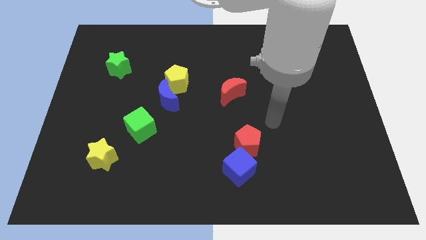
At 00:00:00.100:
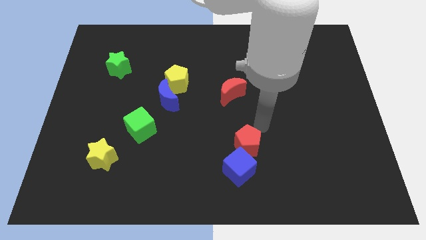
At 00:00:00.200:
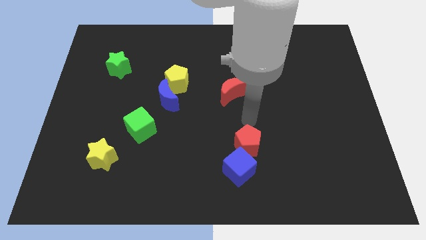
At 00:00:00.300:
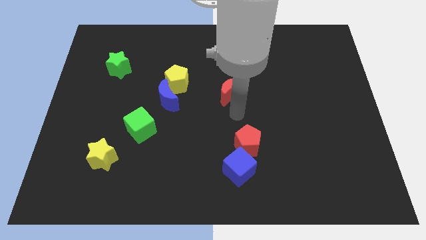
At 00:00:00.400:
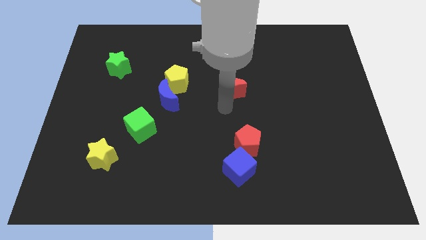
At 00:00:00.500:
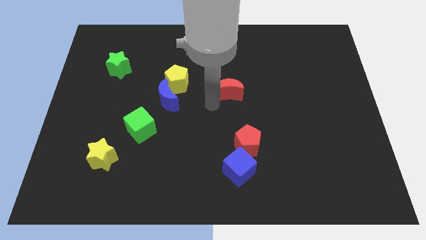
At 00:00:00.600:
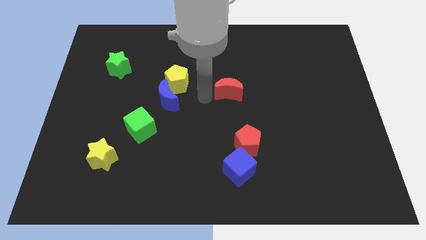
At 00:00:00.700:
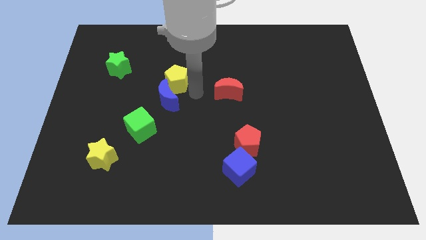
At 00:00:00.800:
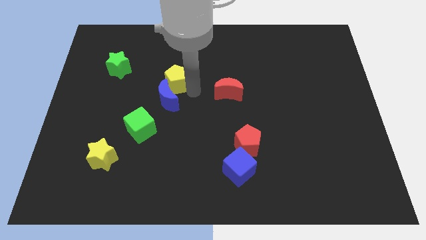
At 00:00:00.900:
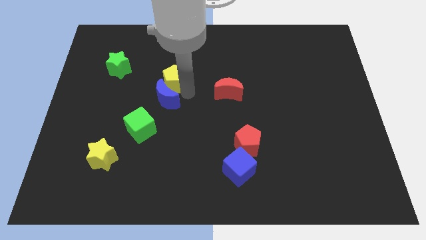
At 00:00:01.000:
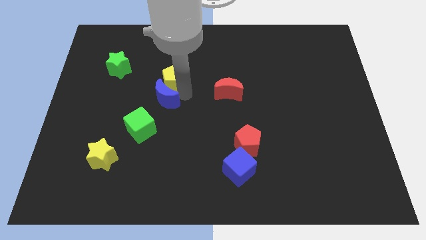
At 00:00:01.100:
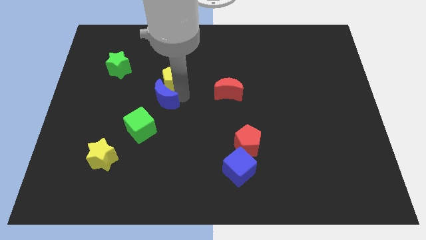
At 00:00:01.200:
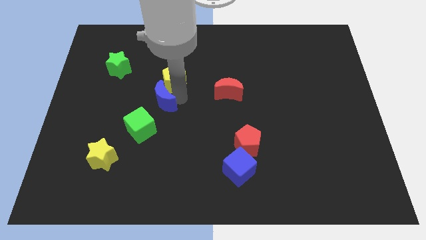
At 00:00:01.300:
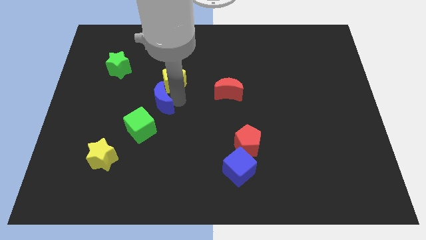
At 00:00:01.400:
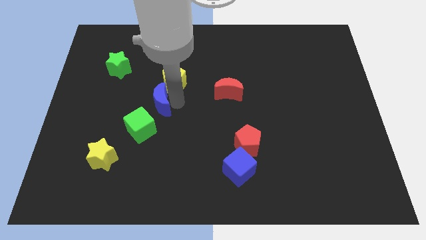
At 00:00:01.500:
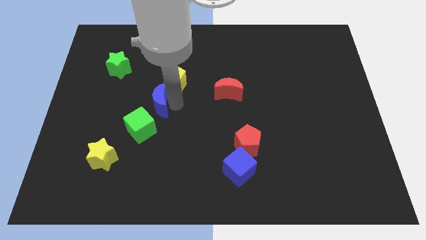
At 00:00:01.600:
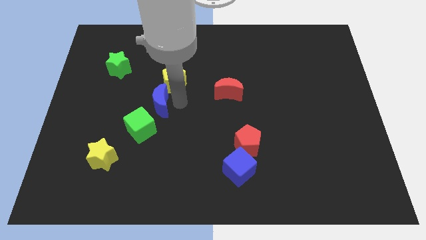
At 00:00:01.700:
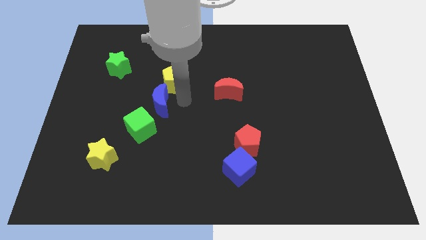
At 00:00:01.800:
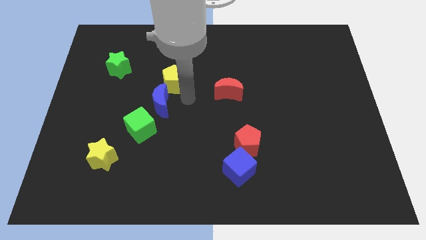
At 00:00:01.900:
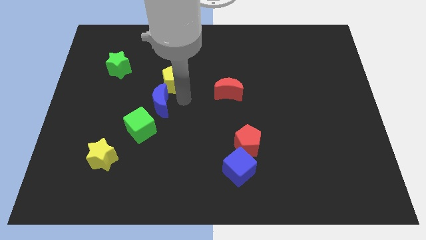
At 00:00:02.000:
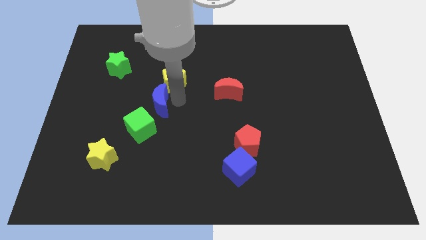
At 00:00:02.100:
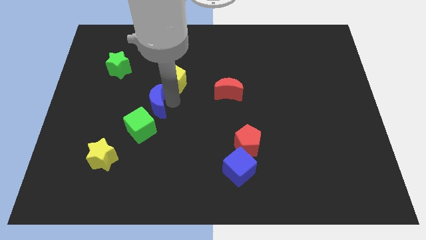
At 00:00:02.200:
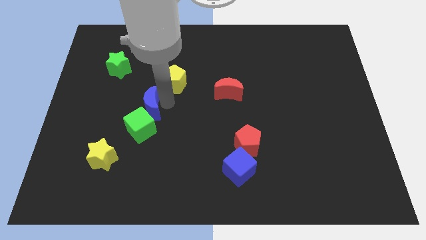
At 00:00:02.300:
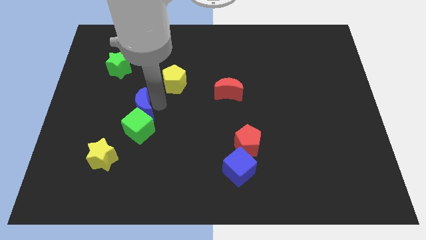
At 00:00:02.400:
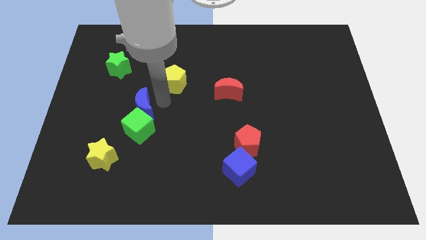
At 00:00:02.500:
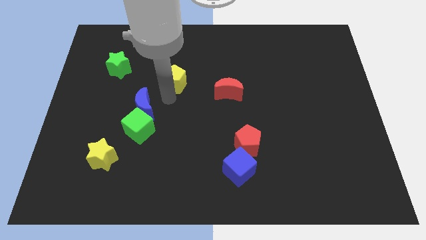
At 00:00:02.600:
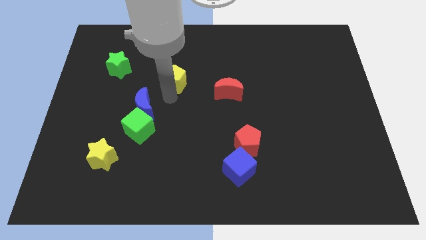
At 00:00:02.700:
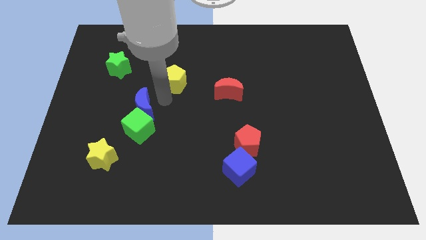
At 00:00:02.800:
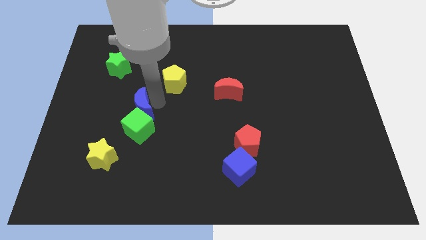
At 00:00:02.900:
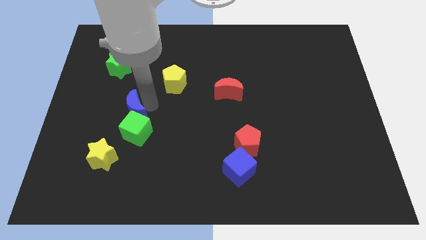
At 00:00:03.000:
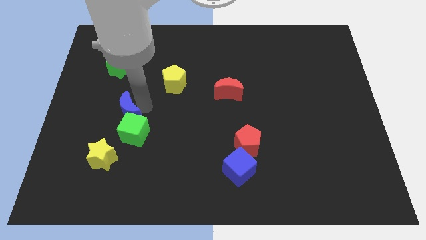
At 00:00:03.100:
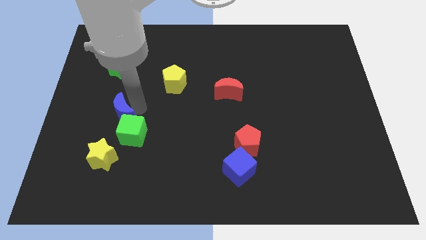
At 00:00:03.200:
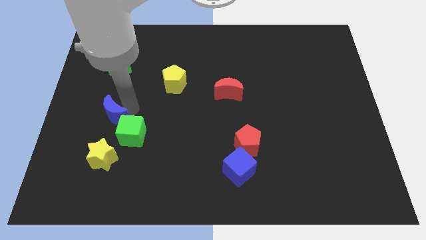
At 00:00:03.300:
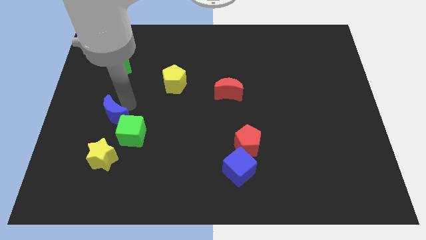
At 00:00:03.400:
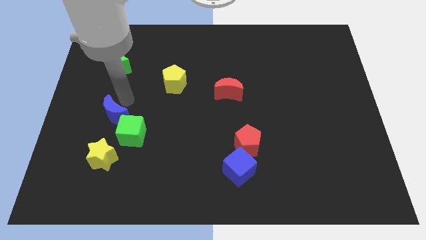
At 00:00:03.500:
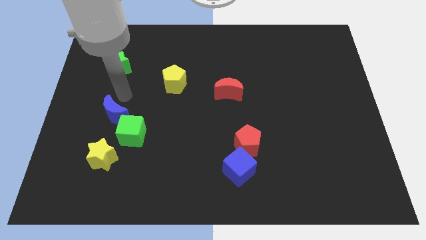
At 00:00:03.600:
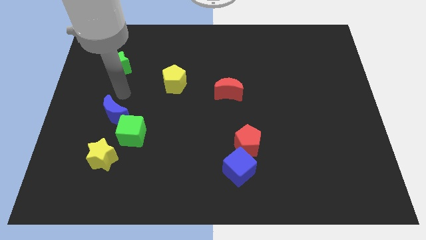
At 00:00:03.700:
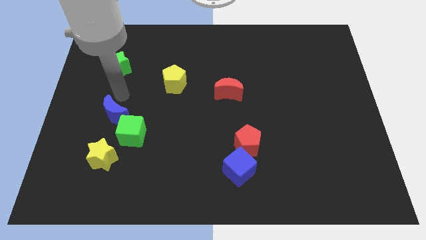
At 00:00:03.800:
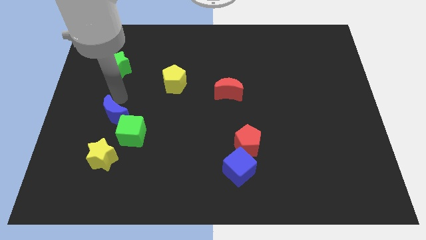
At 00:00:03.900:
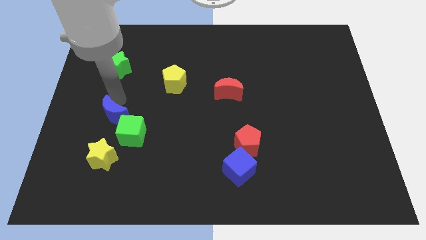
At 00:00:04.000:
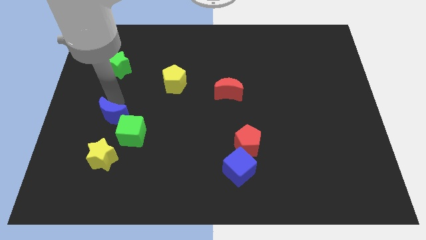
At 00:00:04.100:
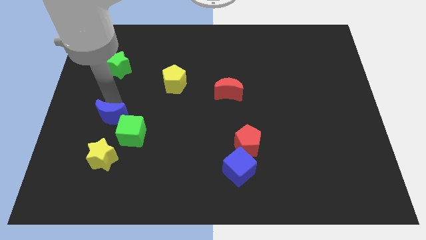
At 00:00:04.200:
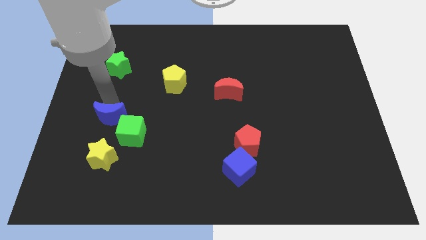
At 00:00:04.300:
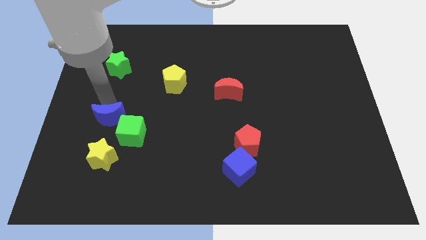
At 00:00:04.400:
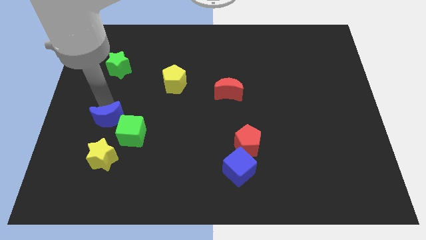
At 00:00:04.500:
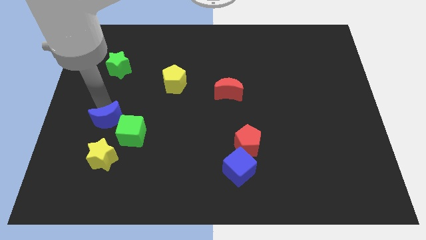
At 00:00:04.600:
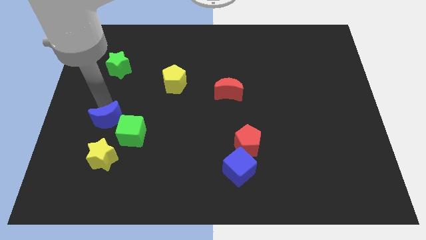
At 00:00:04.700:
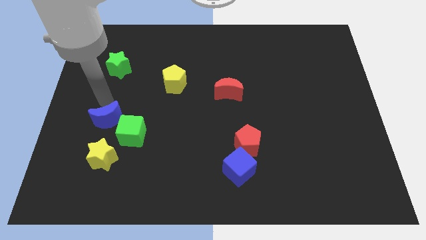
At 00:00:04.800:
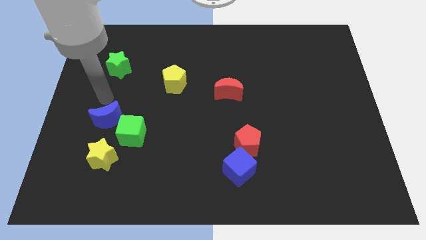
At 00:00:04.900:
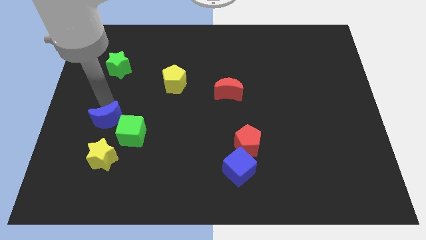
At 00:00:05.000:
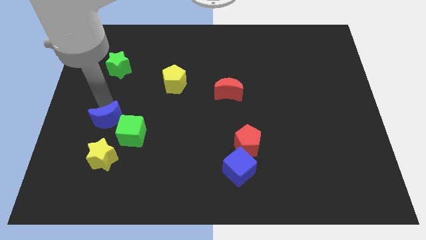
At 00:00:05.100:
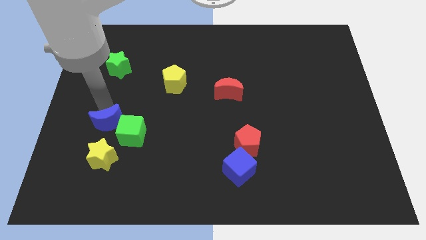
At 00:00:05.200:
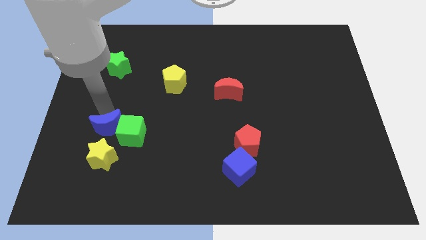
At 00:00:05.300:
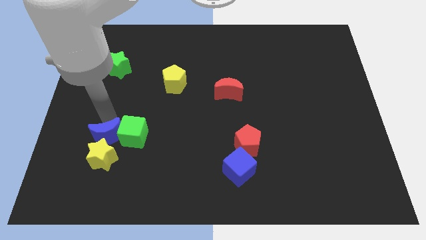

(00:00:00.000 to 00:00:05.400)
push the blue moon next to the yellow star

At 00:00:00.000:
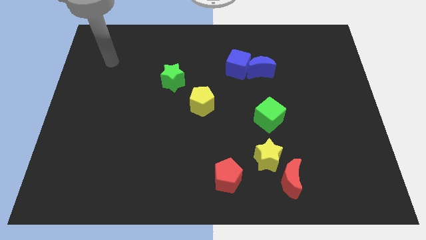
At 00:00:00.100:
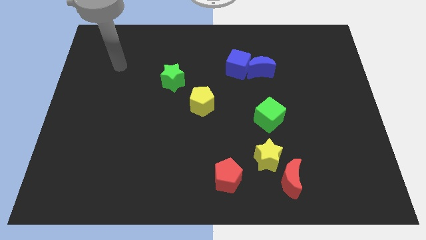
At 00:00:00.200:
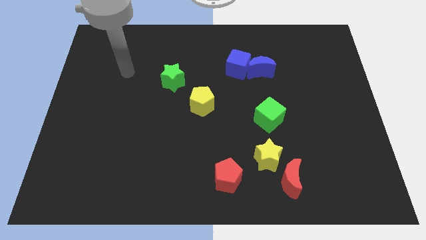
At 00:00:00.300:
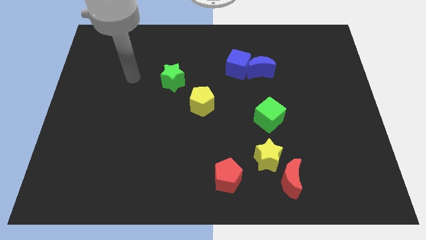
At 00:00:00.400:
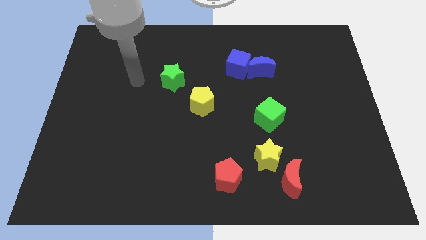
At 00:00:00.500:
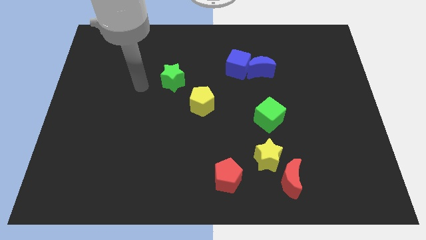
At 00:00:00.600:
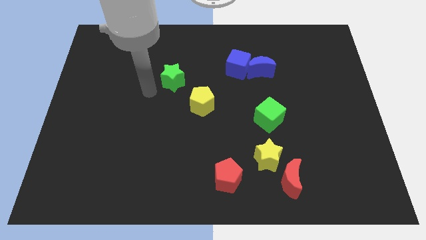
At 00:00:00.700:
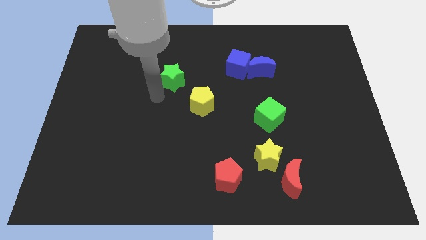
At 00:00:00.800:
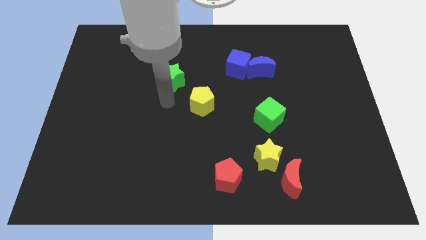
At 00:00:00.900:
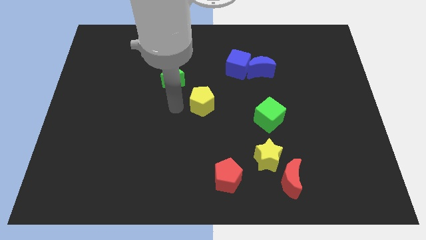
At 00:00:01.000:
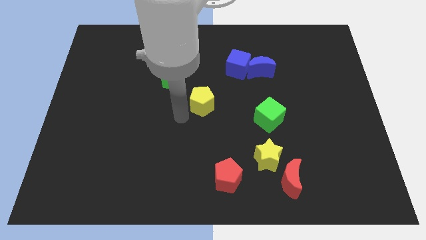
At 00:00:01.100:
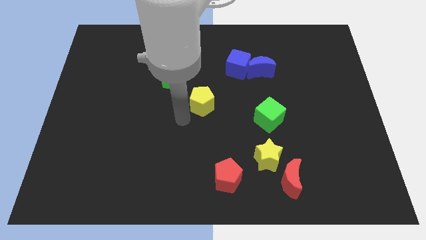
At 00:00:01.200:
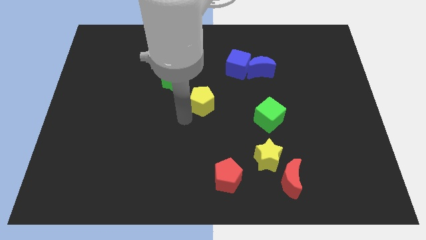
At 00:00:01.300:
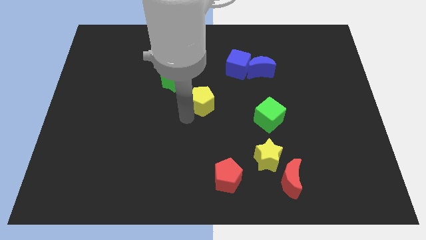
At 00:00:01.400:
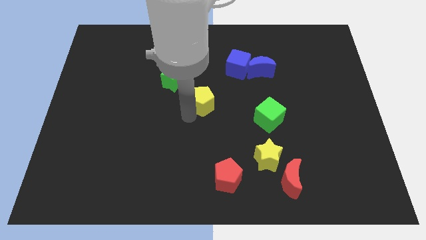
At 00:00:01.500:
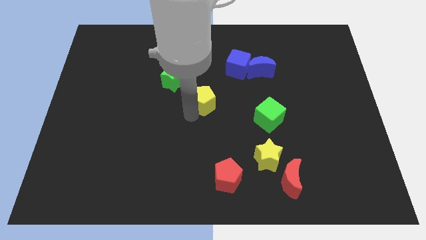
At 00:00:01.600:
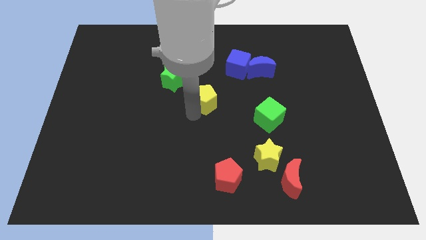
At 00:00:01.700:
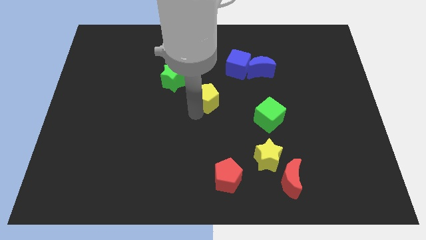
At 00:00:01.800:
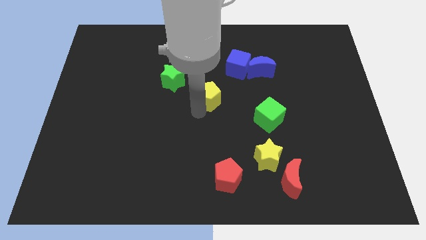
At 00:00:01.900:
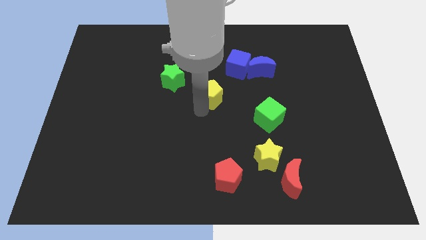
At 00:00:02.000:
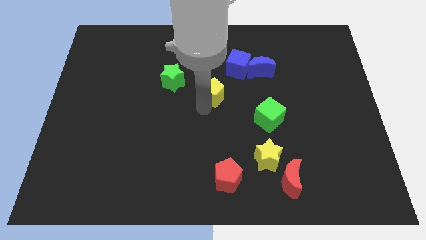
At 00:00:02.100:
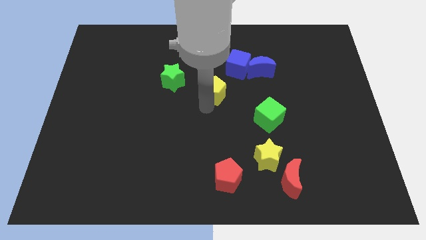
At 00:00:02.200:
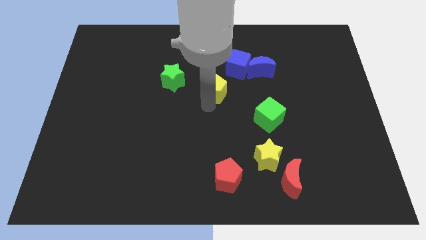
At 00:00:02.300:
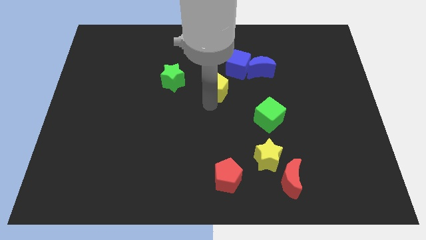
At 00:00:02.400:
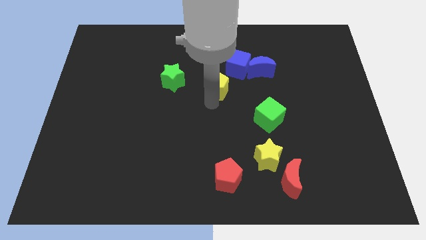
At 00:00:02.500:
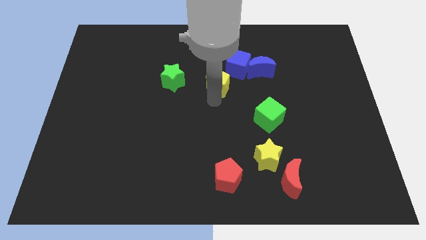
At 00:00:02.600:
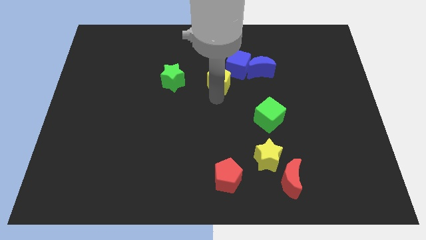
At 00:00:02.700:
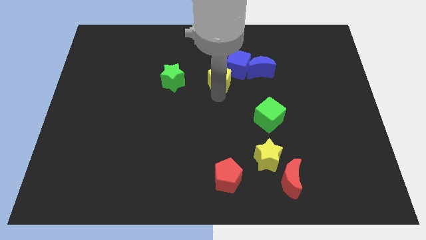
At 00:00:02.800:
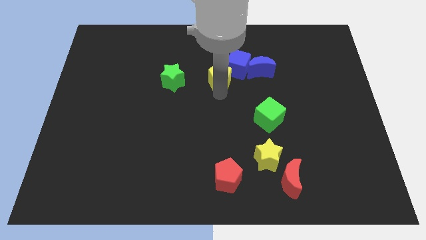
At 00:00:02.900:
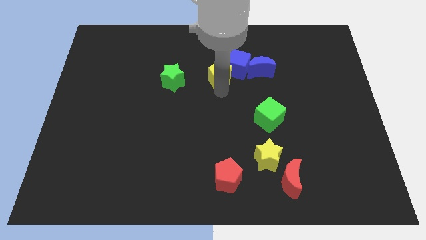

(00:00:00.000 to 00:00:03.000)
move the yellow pentagon towards the blue cube
